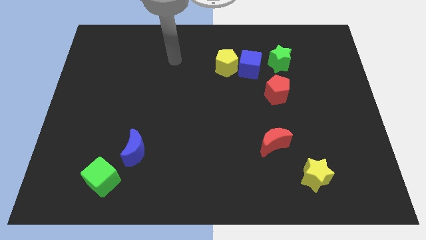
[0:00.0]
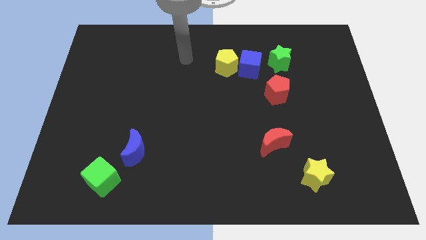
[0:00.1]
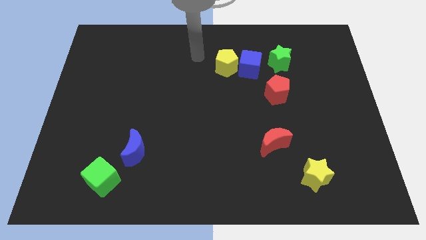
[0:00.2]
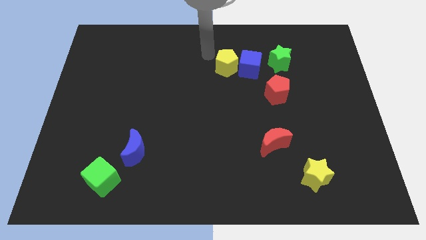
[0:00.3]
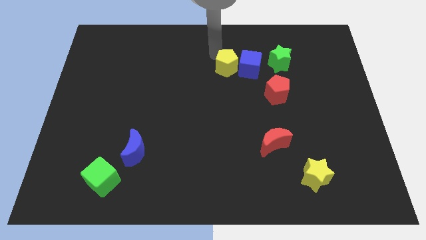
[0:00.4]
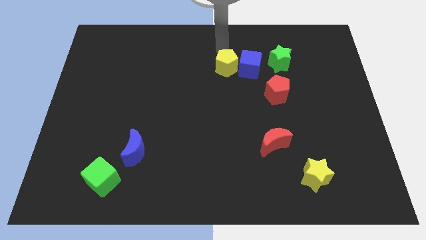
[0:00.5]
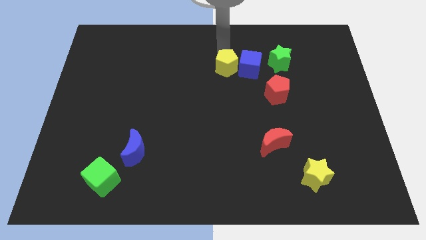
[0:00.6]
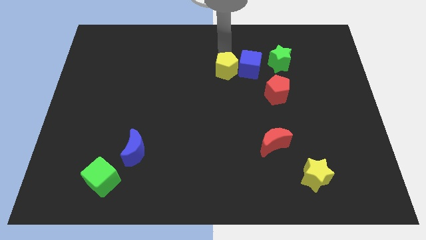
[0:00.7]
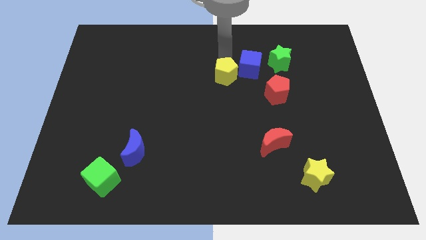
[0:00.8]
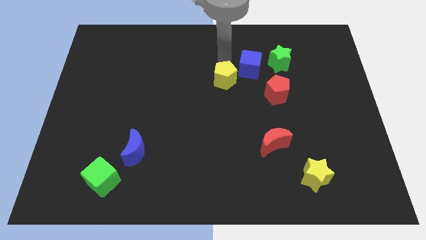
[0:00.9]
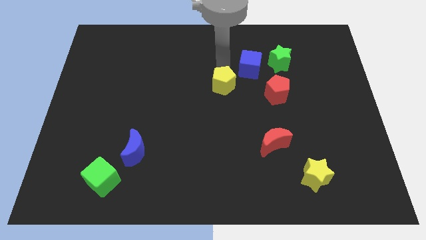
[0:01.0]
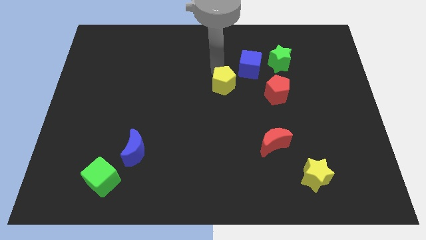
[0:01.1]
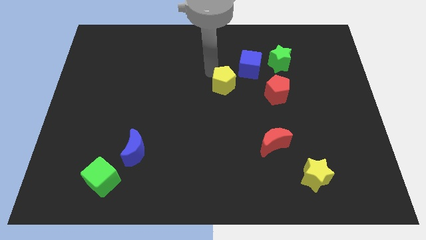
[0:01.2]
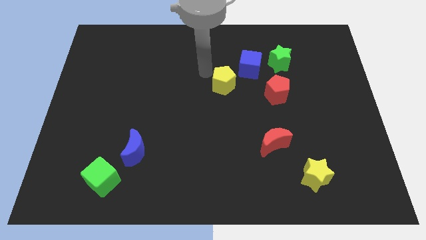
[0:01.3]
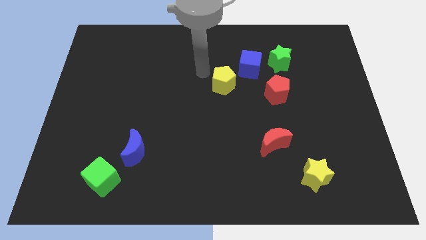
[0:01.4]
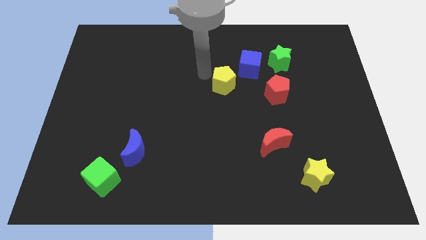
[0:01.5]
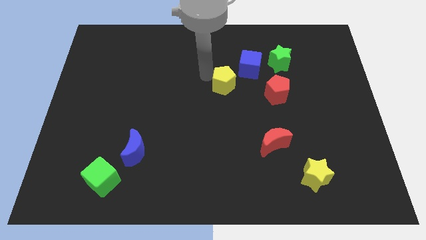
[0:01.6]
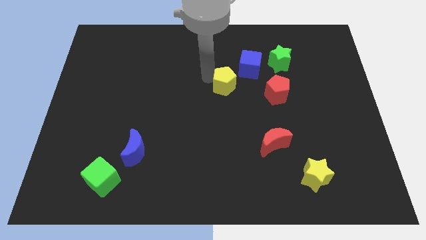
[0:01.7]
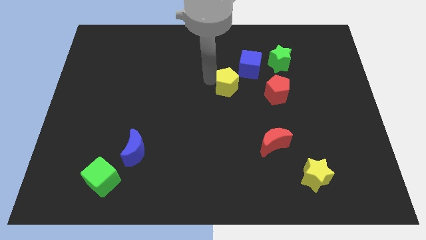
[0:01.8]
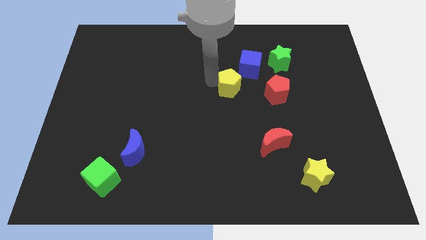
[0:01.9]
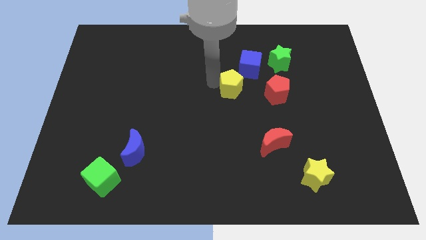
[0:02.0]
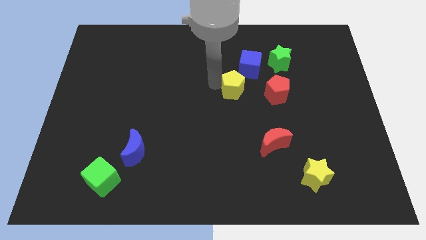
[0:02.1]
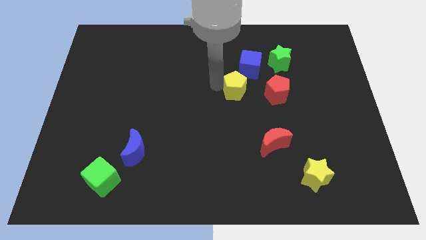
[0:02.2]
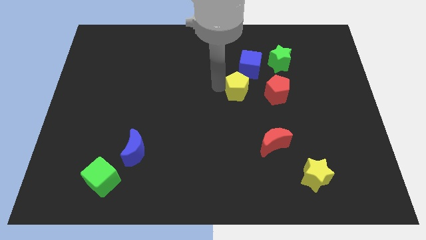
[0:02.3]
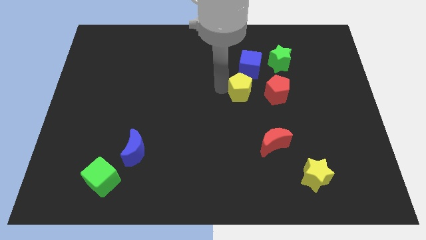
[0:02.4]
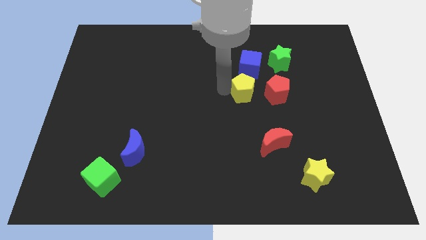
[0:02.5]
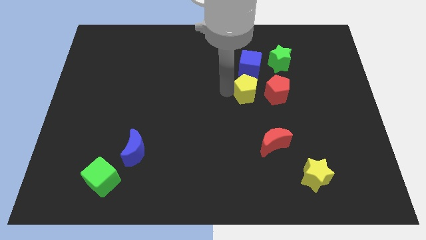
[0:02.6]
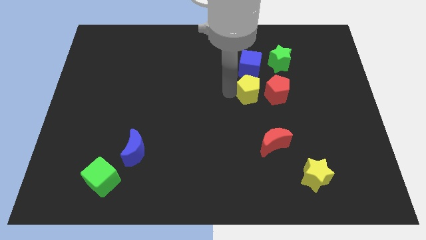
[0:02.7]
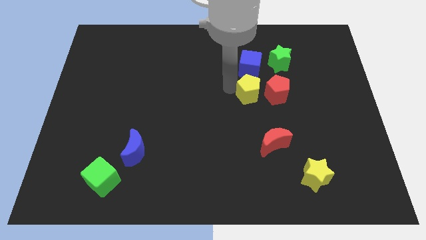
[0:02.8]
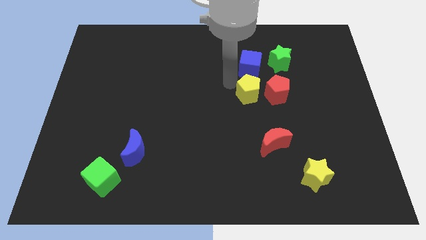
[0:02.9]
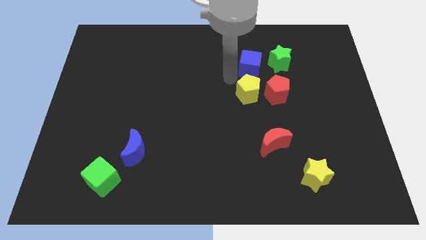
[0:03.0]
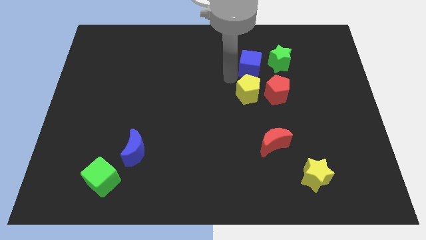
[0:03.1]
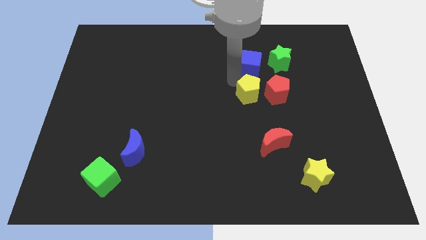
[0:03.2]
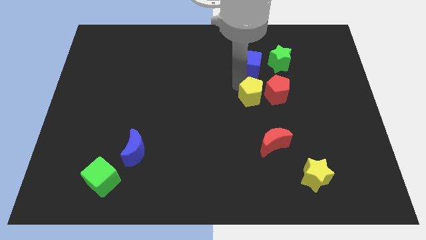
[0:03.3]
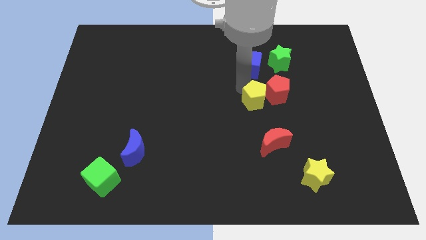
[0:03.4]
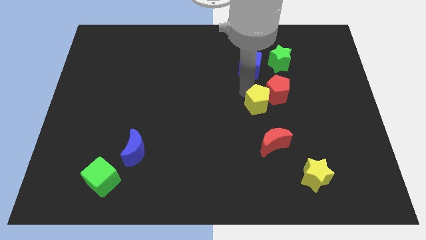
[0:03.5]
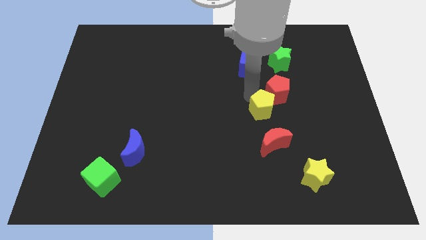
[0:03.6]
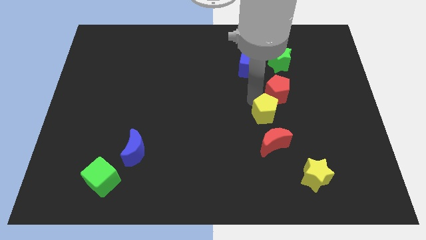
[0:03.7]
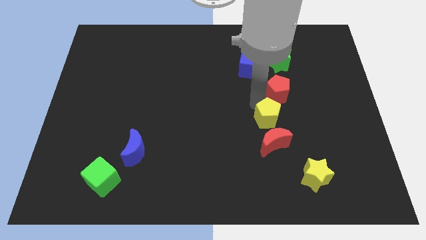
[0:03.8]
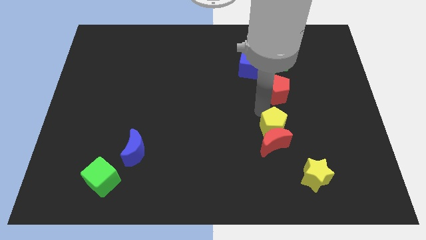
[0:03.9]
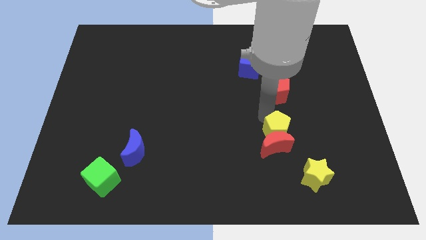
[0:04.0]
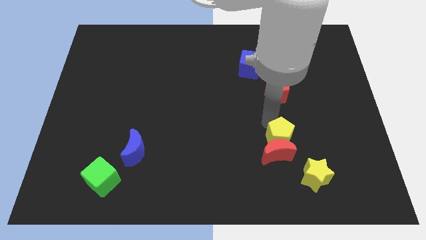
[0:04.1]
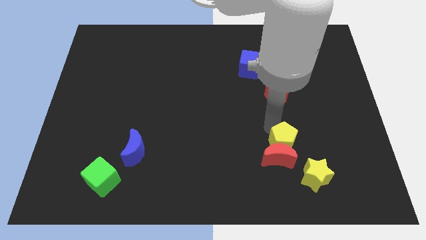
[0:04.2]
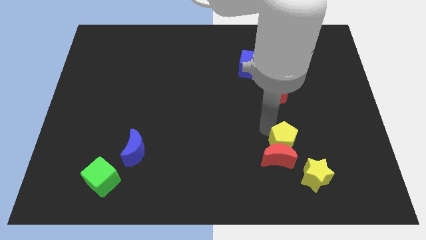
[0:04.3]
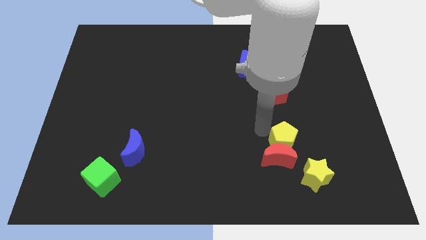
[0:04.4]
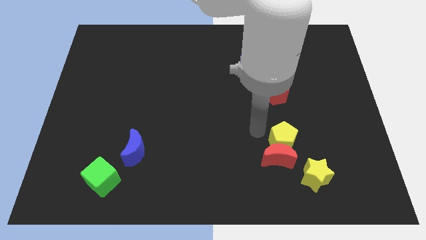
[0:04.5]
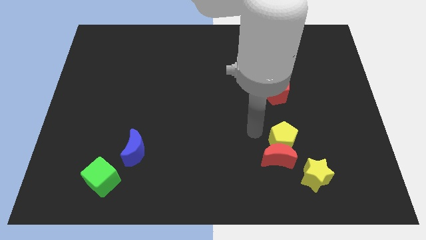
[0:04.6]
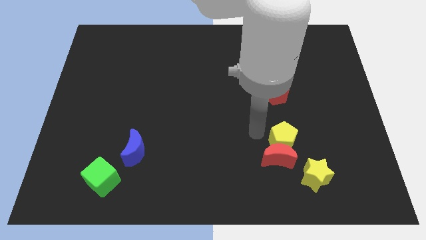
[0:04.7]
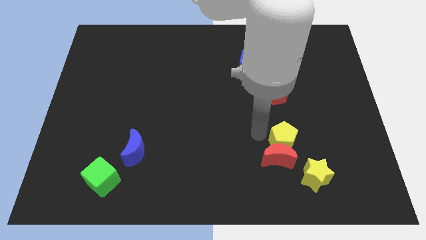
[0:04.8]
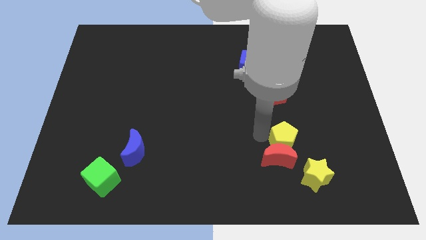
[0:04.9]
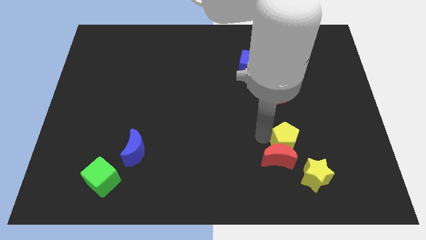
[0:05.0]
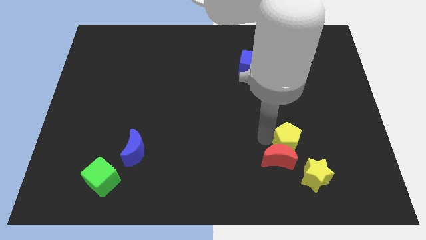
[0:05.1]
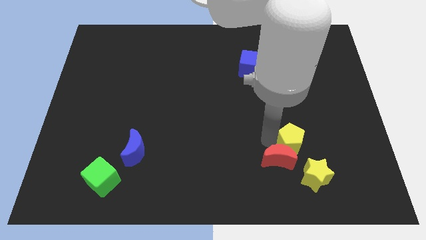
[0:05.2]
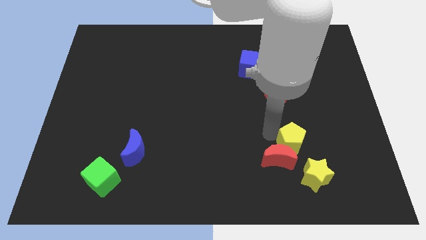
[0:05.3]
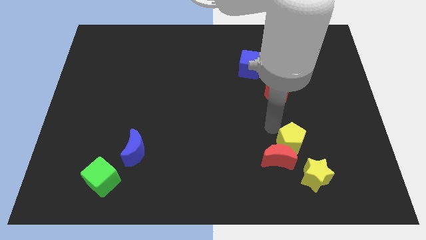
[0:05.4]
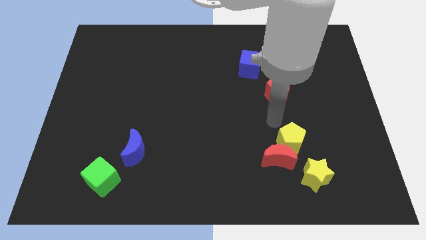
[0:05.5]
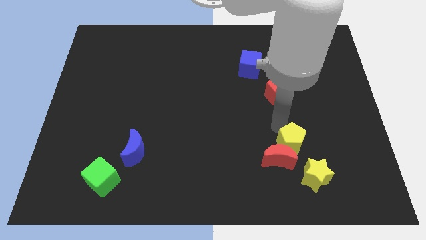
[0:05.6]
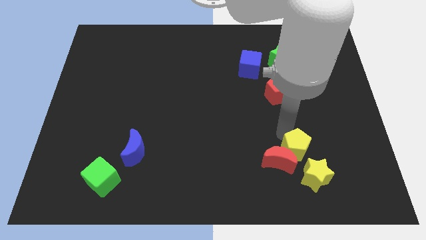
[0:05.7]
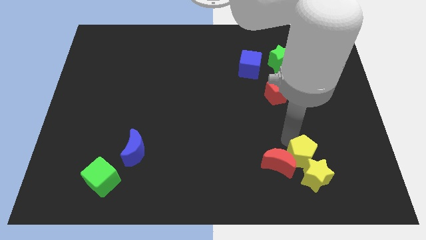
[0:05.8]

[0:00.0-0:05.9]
push the yellow pentagon to the yellow star

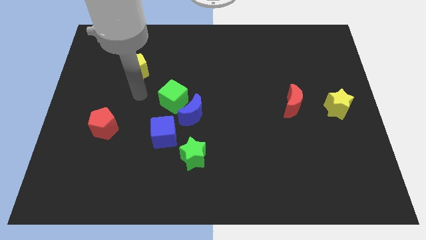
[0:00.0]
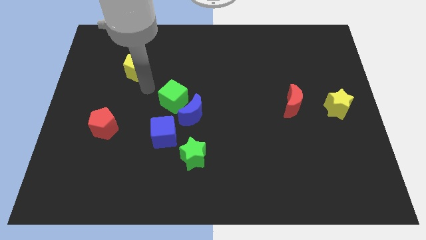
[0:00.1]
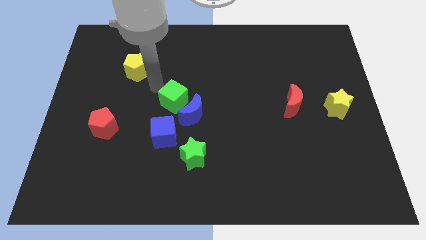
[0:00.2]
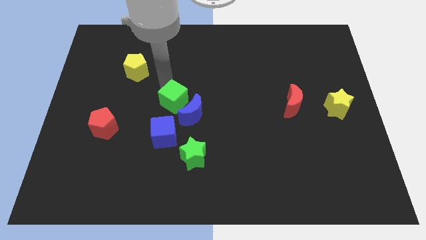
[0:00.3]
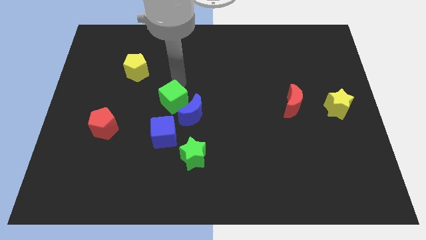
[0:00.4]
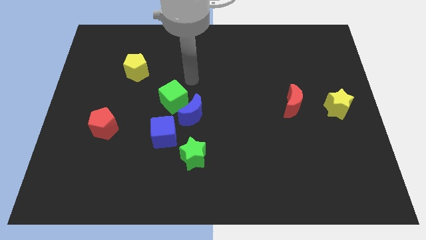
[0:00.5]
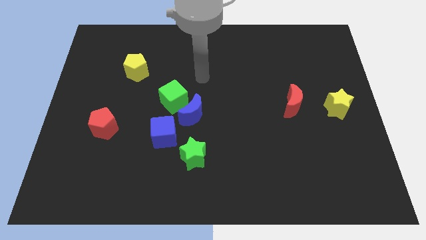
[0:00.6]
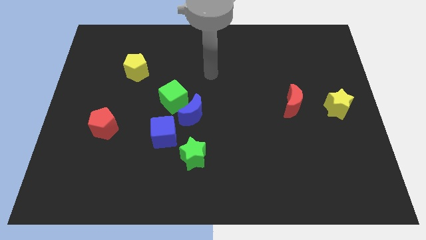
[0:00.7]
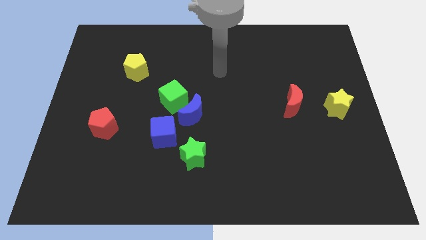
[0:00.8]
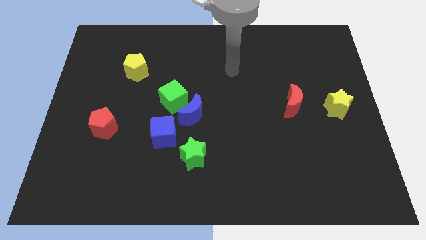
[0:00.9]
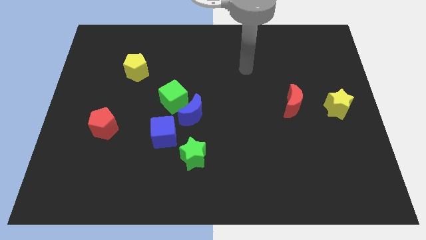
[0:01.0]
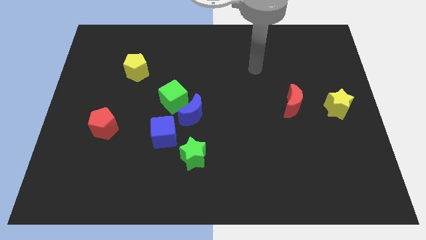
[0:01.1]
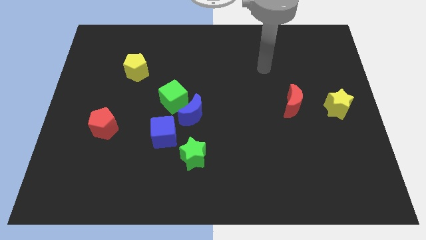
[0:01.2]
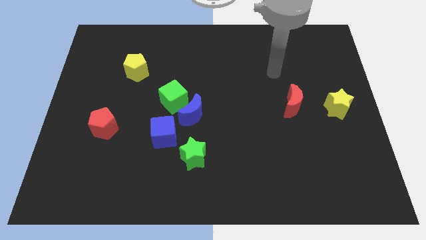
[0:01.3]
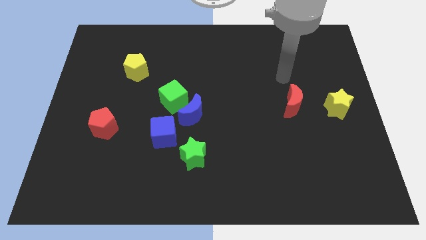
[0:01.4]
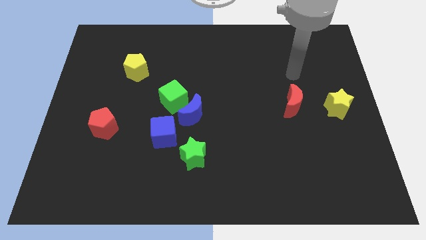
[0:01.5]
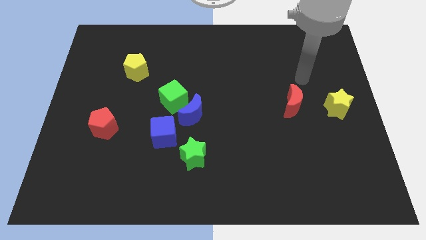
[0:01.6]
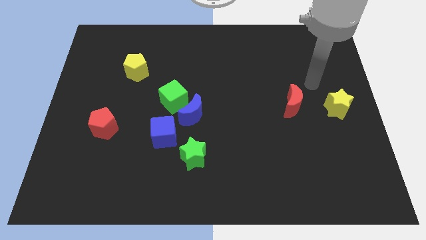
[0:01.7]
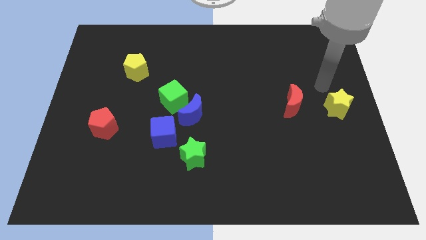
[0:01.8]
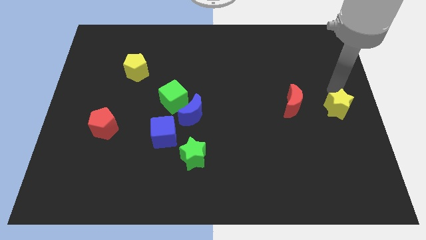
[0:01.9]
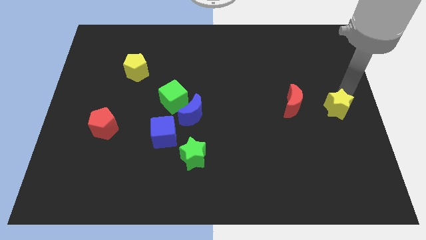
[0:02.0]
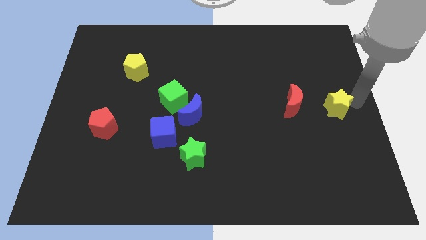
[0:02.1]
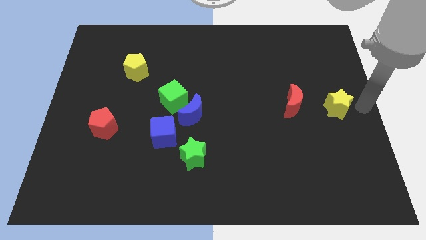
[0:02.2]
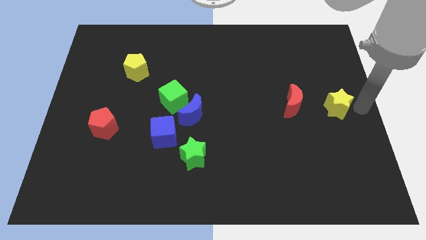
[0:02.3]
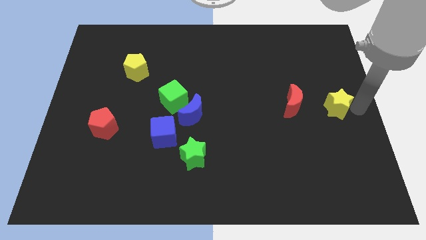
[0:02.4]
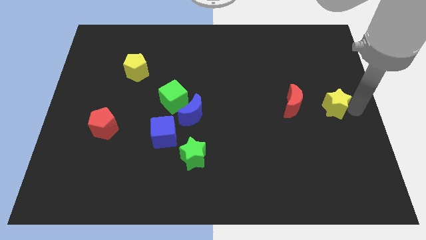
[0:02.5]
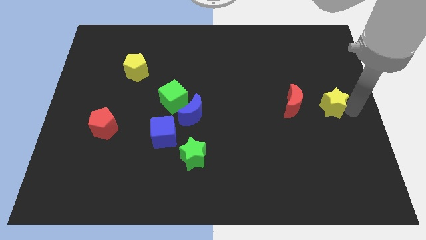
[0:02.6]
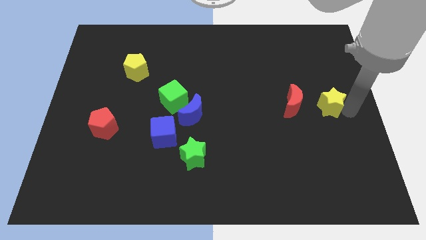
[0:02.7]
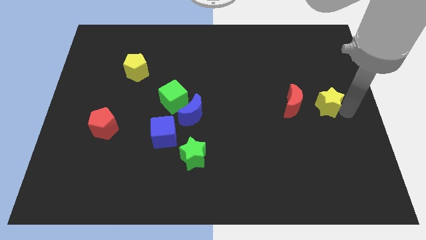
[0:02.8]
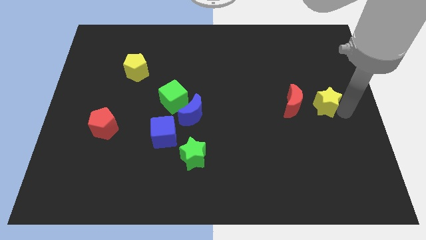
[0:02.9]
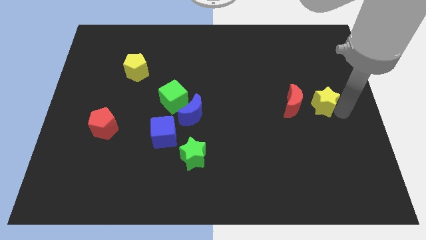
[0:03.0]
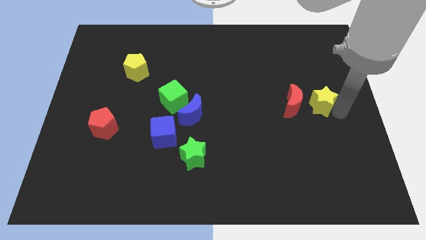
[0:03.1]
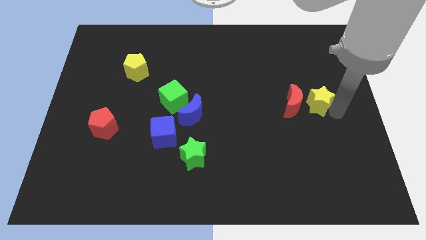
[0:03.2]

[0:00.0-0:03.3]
push the yellow star next to the red moon
